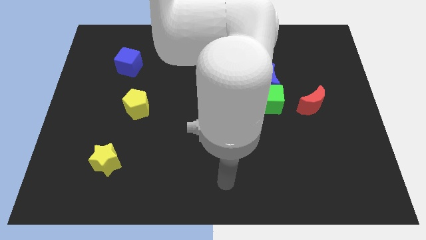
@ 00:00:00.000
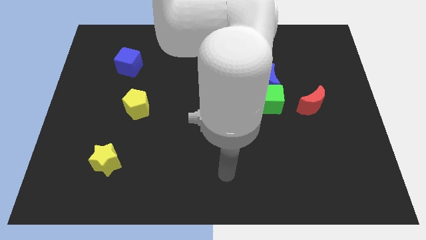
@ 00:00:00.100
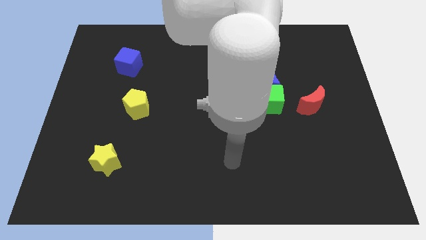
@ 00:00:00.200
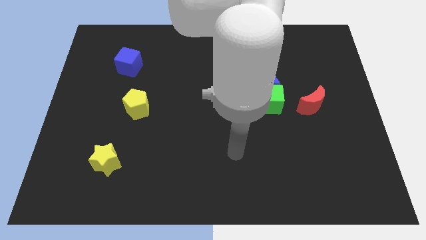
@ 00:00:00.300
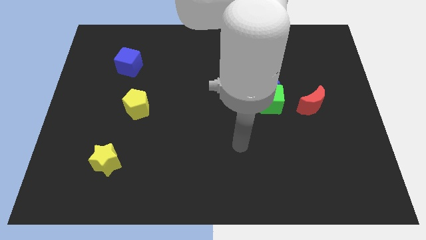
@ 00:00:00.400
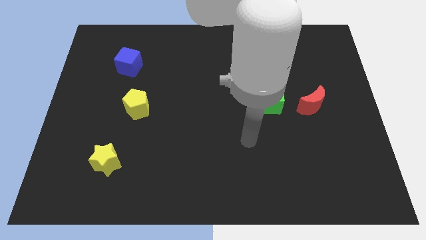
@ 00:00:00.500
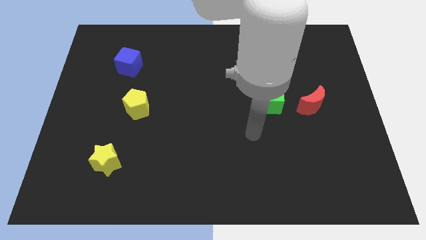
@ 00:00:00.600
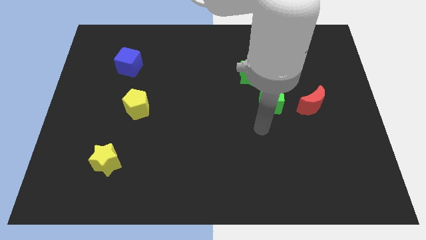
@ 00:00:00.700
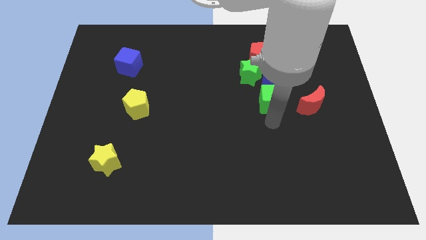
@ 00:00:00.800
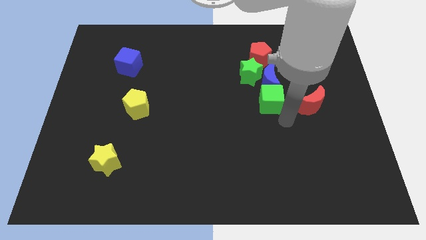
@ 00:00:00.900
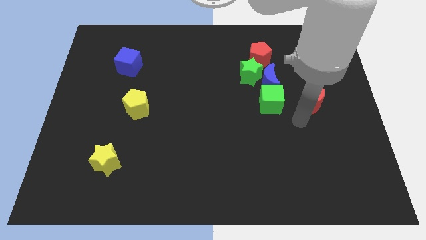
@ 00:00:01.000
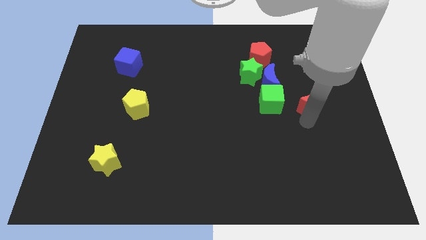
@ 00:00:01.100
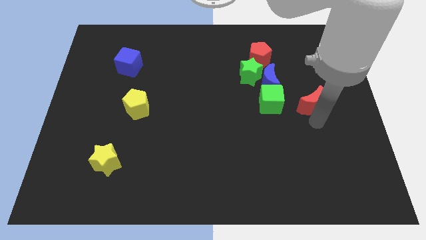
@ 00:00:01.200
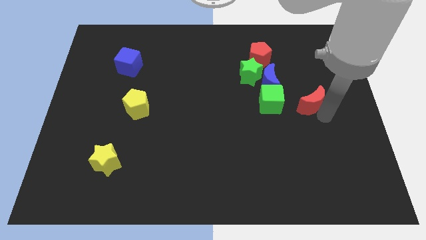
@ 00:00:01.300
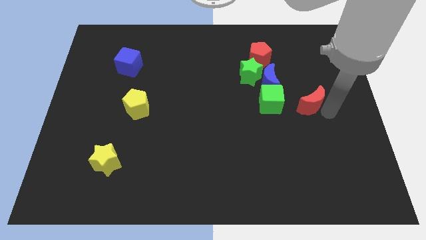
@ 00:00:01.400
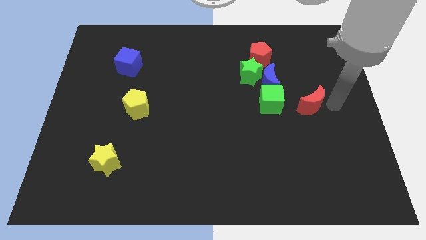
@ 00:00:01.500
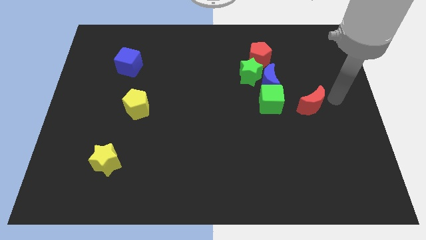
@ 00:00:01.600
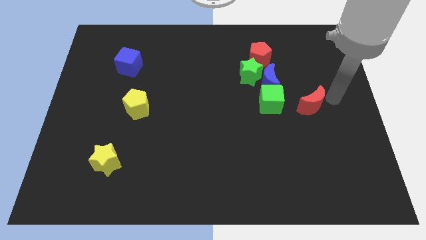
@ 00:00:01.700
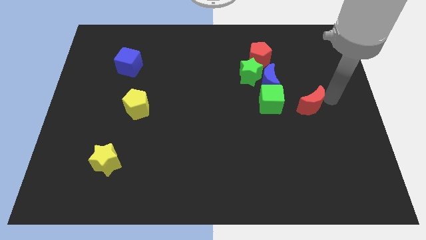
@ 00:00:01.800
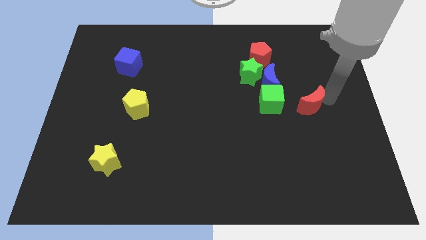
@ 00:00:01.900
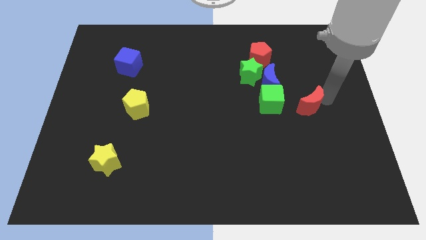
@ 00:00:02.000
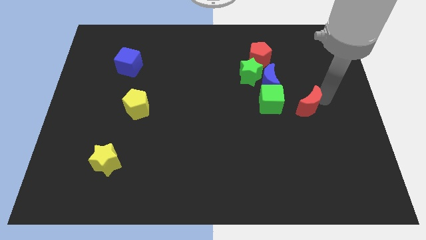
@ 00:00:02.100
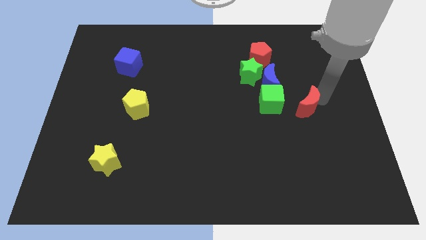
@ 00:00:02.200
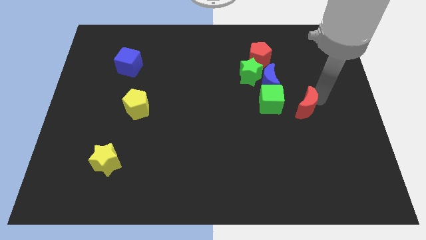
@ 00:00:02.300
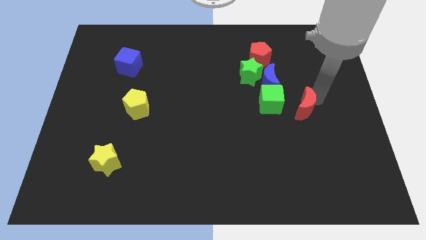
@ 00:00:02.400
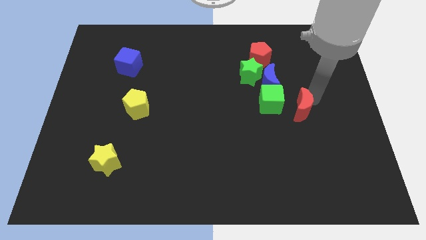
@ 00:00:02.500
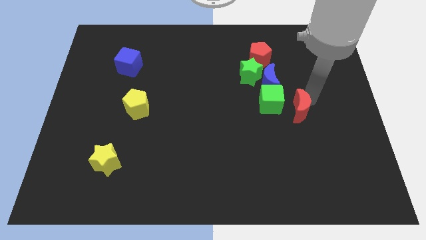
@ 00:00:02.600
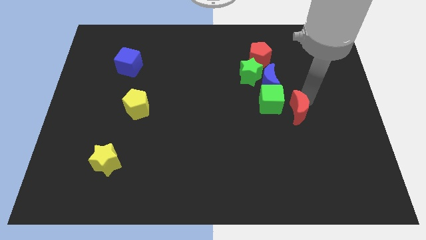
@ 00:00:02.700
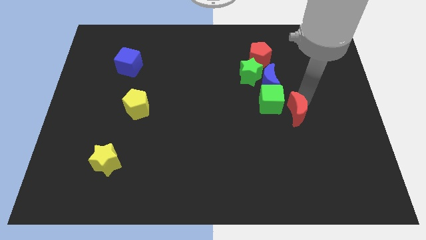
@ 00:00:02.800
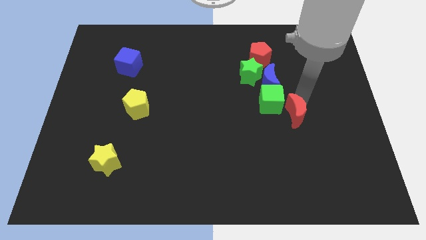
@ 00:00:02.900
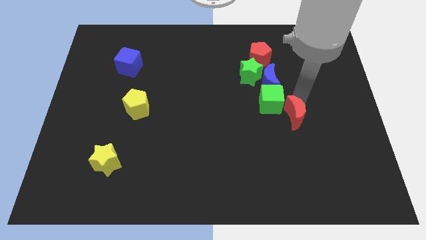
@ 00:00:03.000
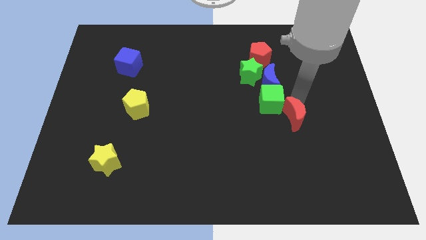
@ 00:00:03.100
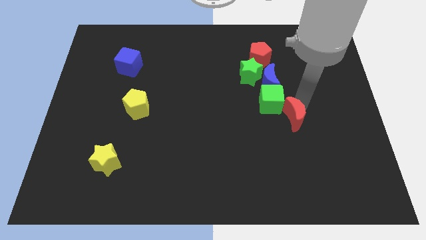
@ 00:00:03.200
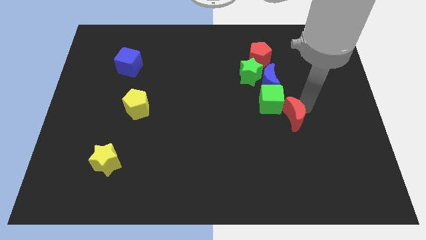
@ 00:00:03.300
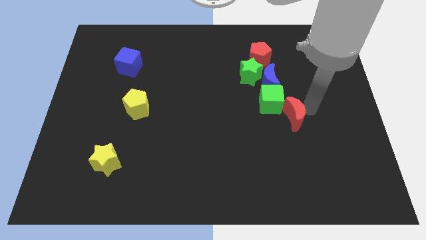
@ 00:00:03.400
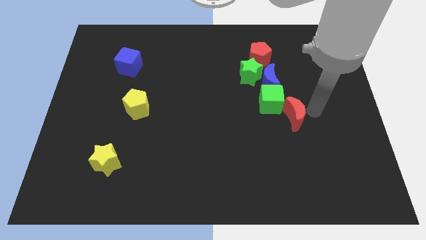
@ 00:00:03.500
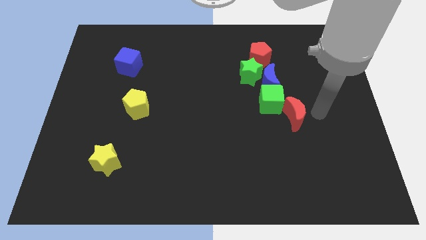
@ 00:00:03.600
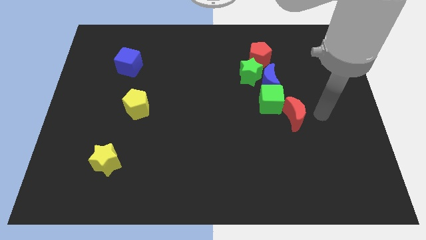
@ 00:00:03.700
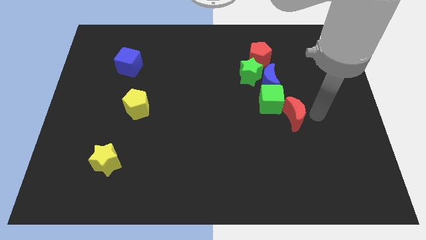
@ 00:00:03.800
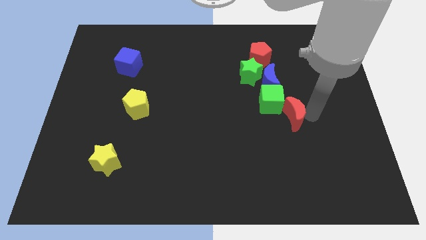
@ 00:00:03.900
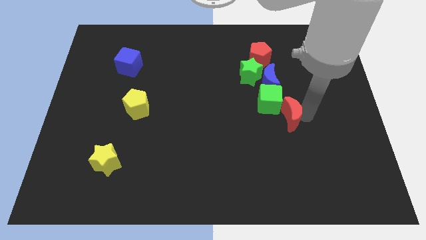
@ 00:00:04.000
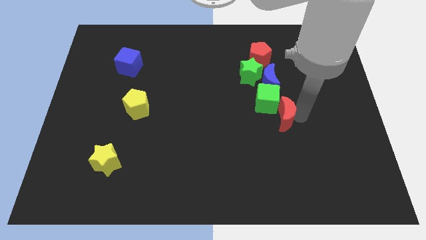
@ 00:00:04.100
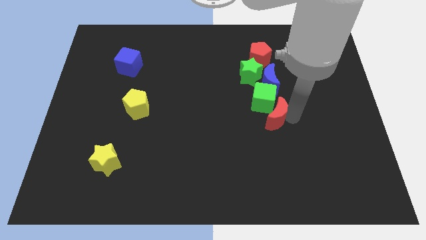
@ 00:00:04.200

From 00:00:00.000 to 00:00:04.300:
slide the red moon left a bit

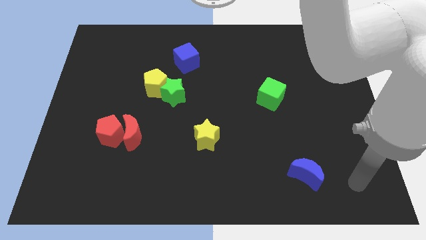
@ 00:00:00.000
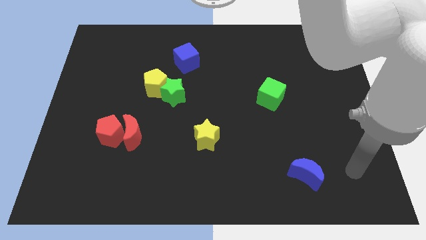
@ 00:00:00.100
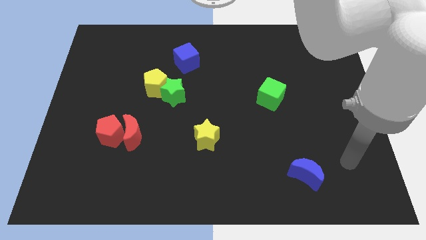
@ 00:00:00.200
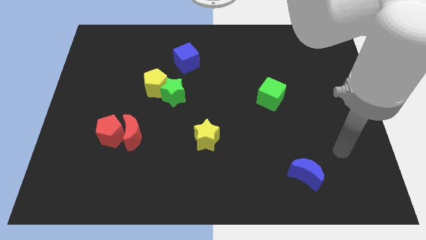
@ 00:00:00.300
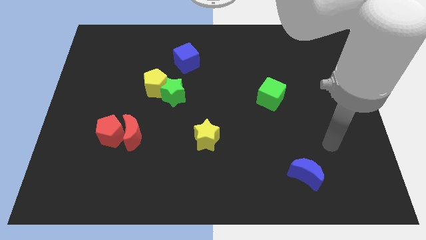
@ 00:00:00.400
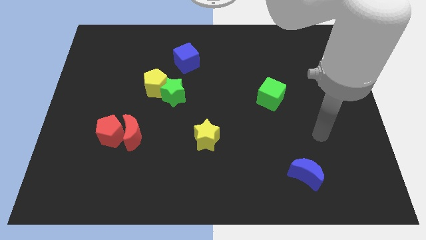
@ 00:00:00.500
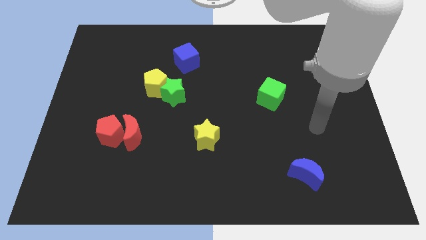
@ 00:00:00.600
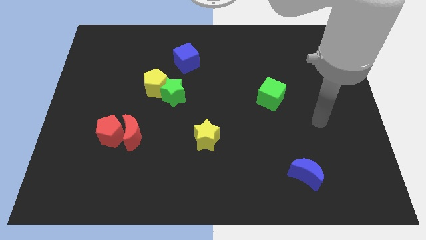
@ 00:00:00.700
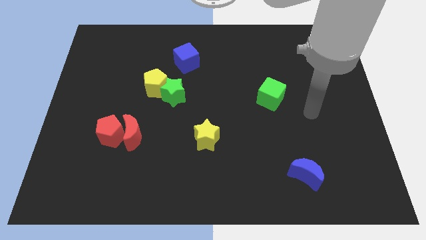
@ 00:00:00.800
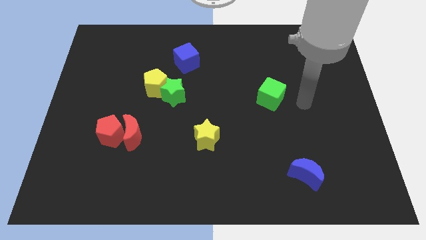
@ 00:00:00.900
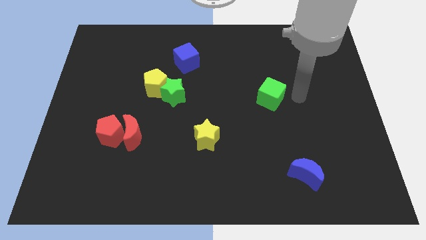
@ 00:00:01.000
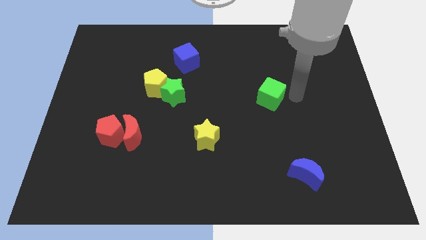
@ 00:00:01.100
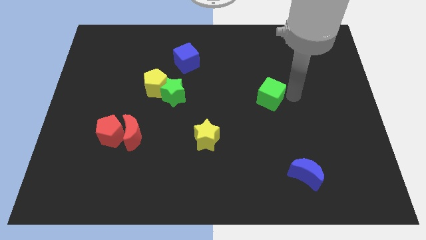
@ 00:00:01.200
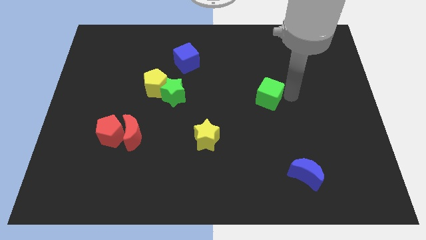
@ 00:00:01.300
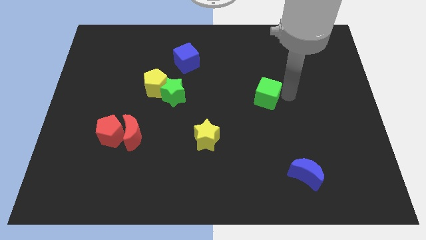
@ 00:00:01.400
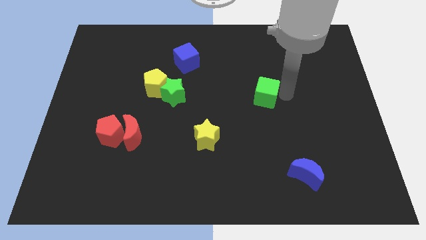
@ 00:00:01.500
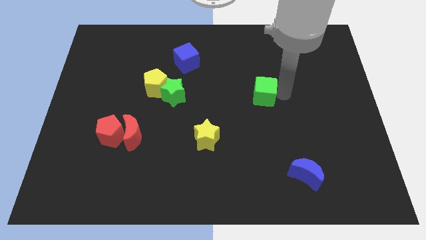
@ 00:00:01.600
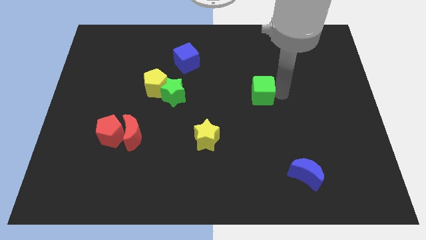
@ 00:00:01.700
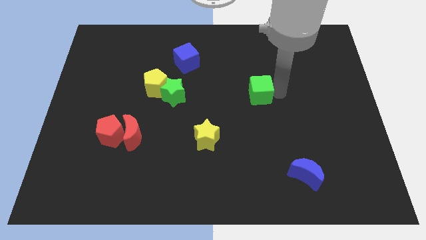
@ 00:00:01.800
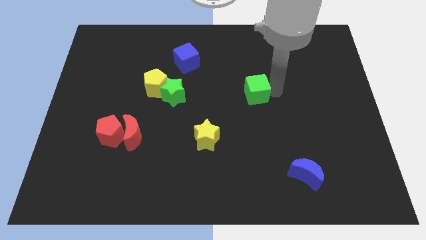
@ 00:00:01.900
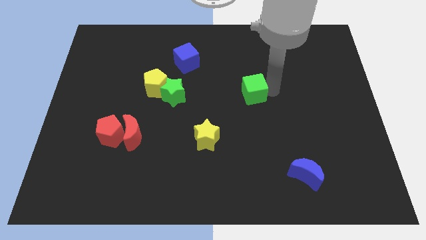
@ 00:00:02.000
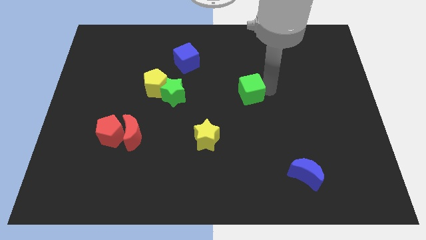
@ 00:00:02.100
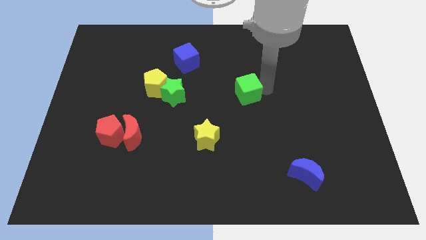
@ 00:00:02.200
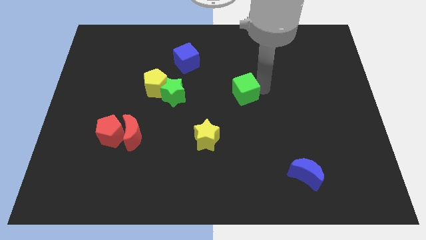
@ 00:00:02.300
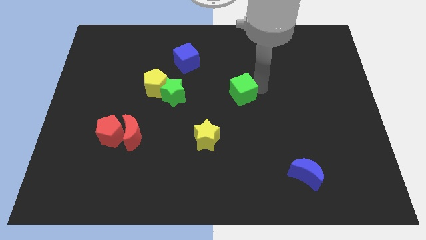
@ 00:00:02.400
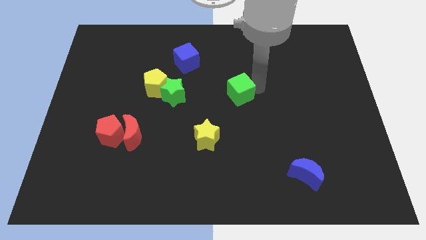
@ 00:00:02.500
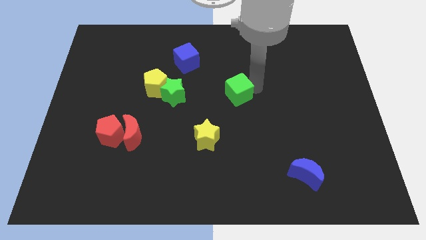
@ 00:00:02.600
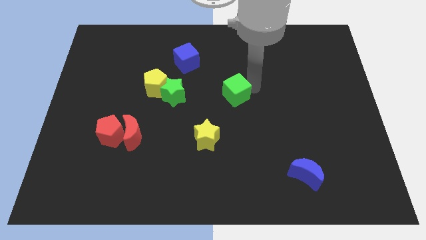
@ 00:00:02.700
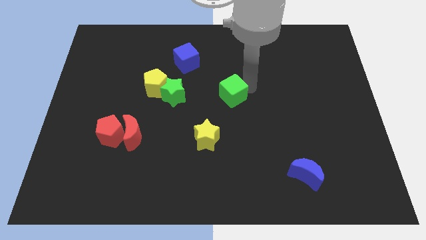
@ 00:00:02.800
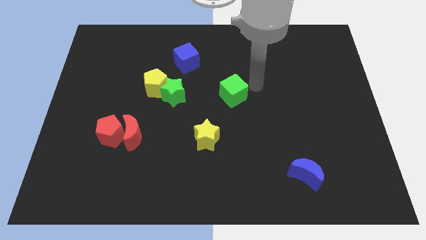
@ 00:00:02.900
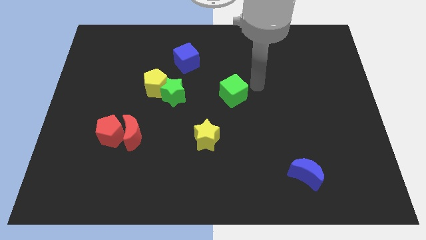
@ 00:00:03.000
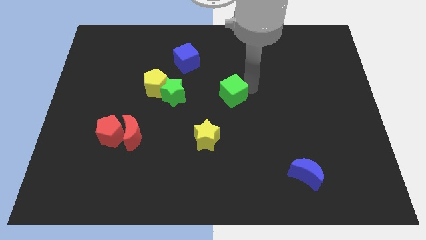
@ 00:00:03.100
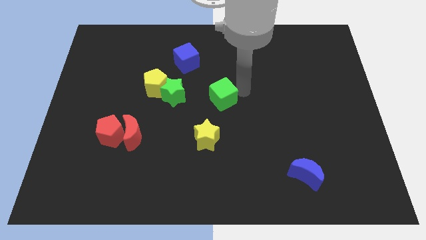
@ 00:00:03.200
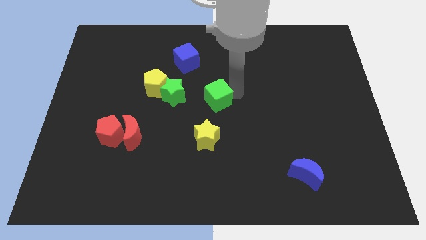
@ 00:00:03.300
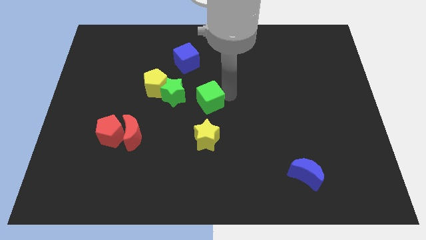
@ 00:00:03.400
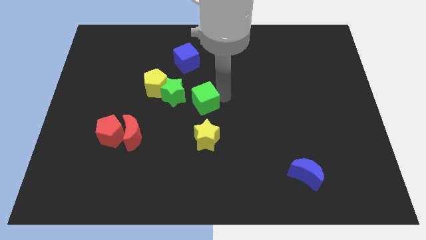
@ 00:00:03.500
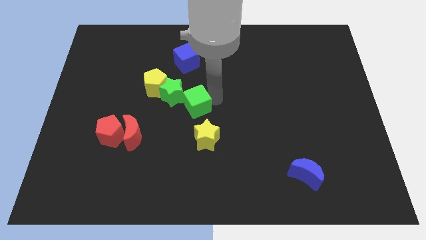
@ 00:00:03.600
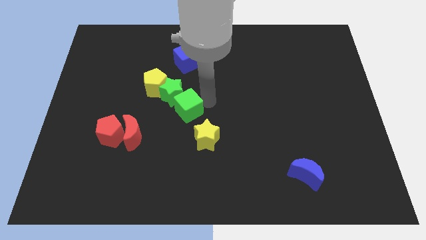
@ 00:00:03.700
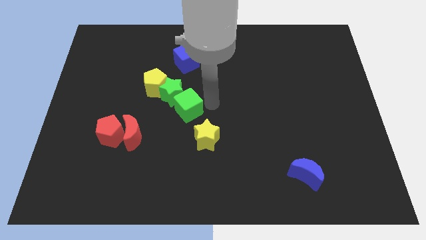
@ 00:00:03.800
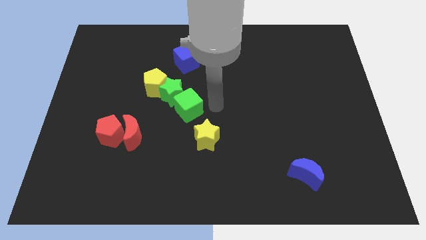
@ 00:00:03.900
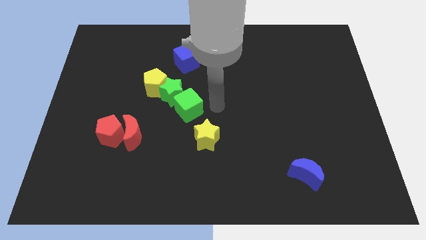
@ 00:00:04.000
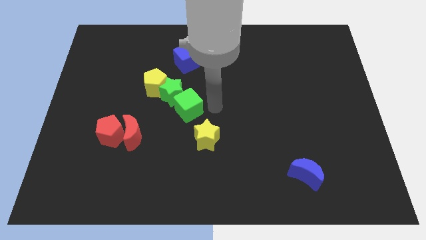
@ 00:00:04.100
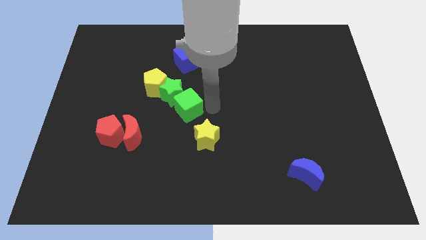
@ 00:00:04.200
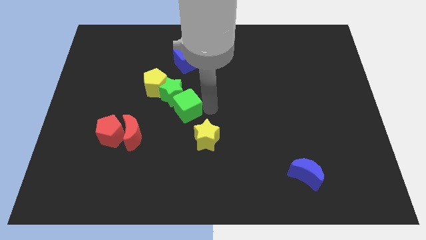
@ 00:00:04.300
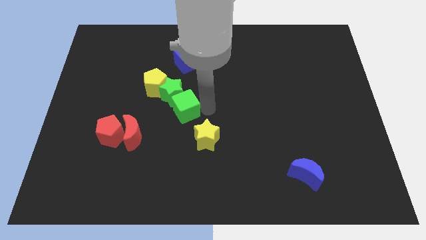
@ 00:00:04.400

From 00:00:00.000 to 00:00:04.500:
move the green cube to the left
